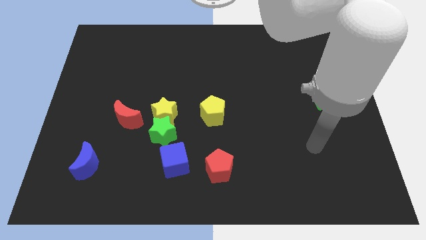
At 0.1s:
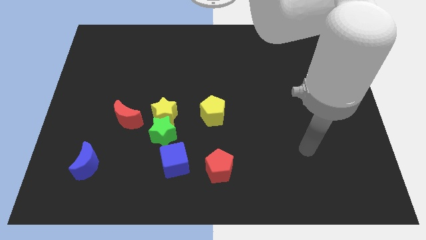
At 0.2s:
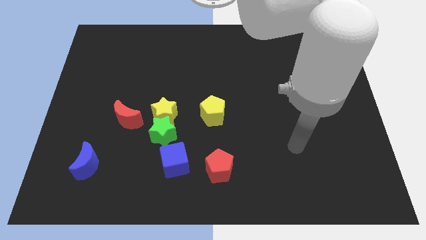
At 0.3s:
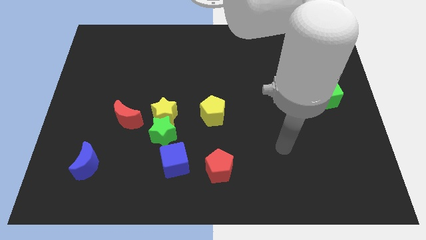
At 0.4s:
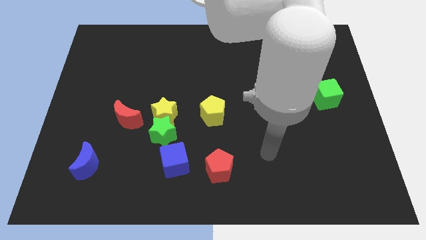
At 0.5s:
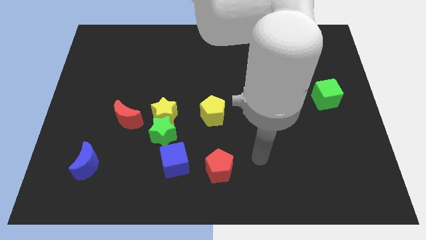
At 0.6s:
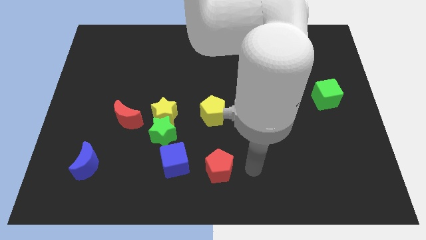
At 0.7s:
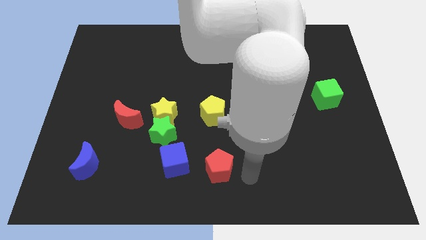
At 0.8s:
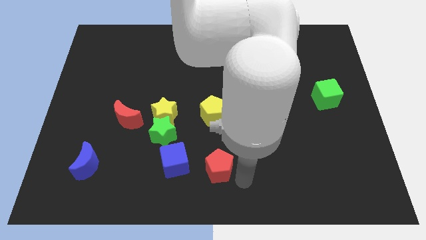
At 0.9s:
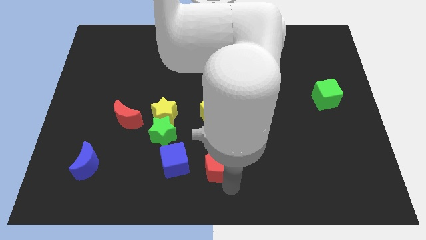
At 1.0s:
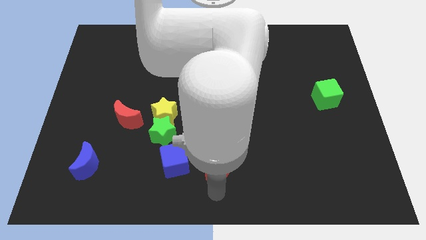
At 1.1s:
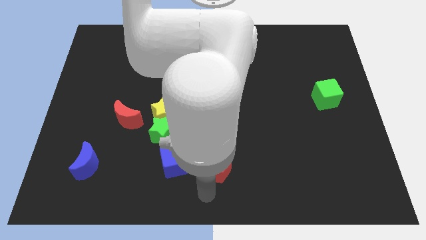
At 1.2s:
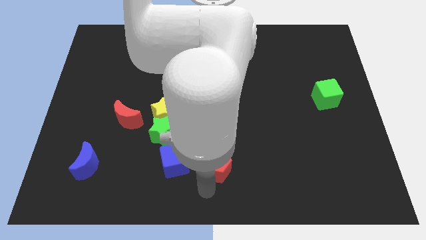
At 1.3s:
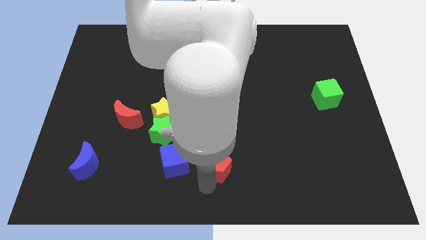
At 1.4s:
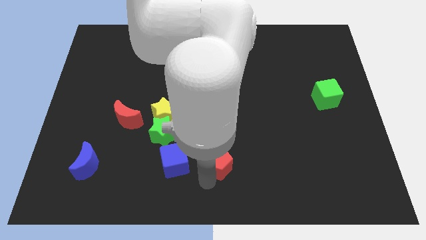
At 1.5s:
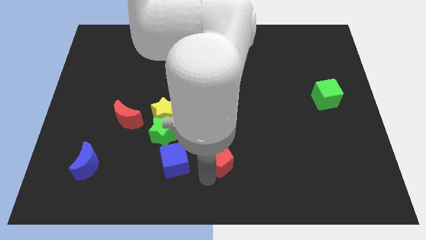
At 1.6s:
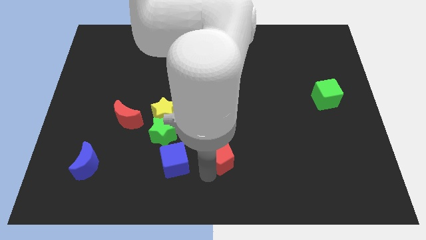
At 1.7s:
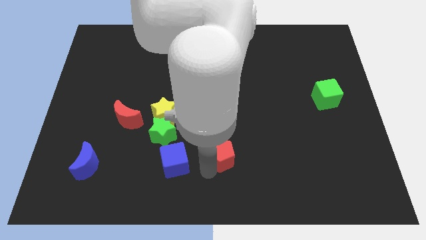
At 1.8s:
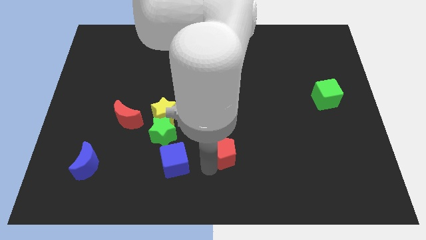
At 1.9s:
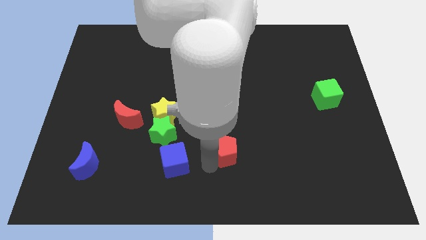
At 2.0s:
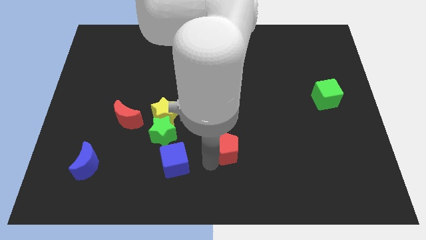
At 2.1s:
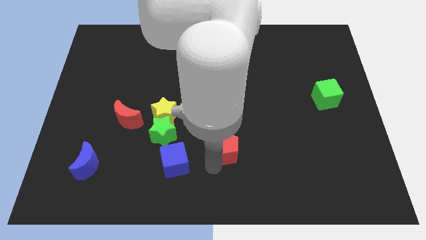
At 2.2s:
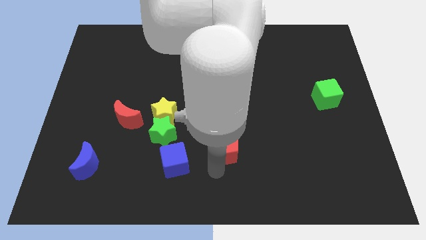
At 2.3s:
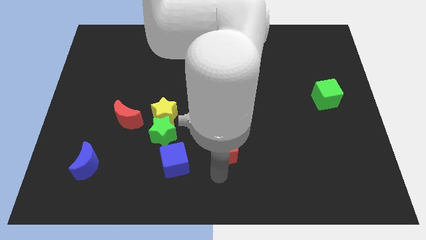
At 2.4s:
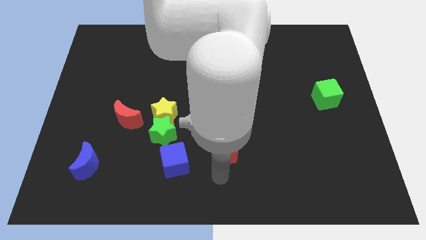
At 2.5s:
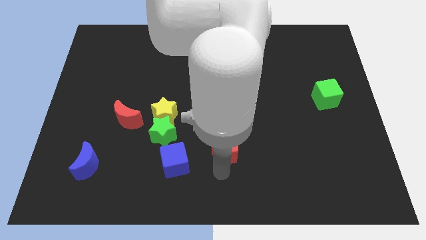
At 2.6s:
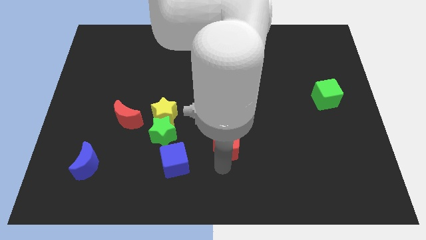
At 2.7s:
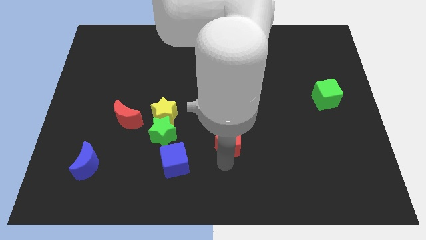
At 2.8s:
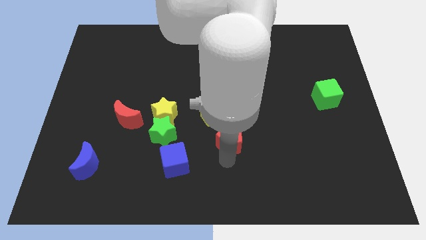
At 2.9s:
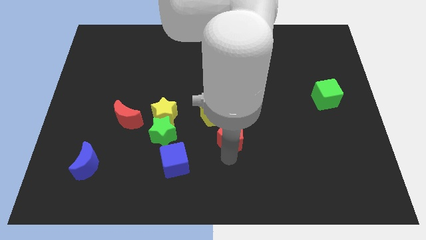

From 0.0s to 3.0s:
push the red pentagon up a little

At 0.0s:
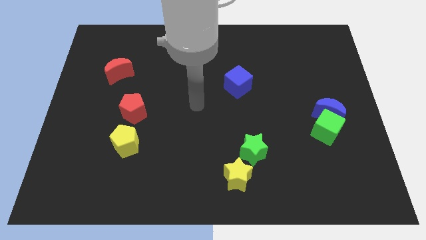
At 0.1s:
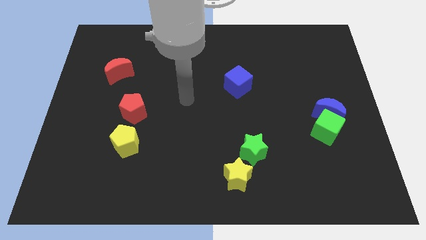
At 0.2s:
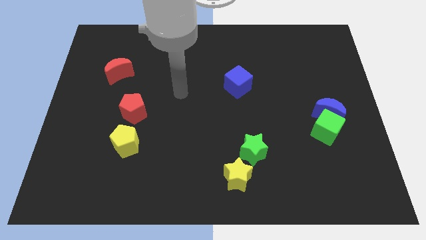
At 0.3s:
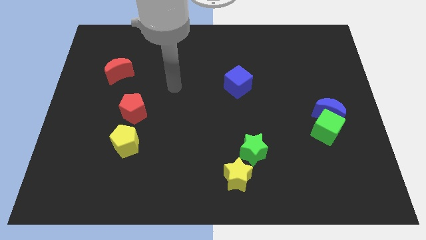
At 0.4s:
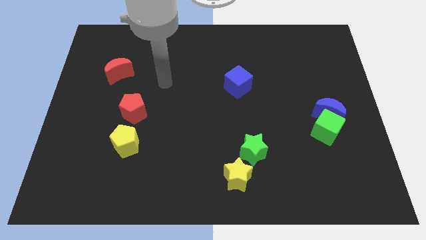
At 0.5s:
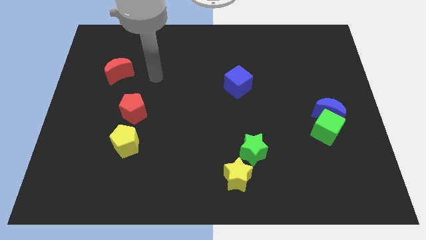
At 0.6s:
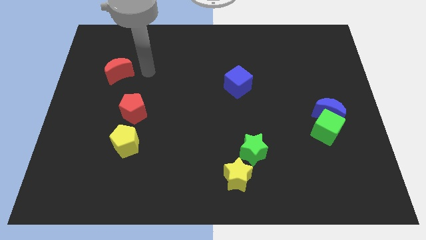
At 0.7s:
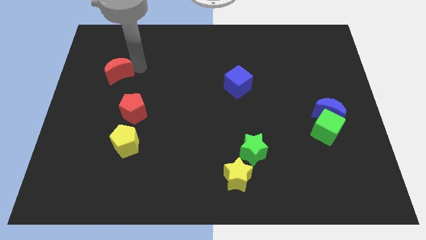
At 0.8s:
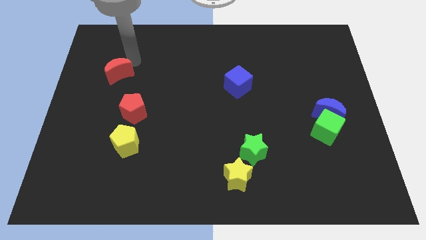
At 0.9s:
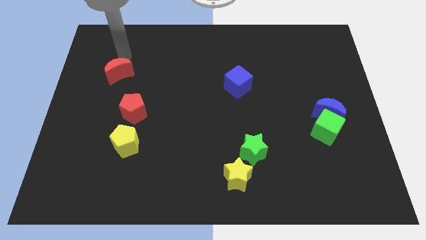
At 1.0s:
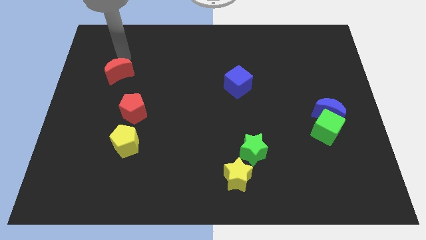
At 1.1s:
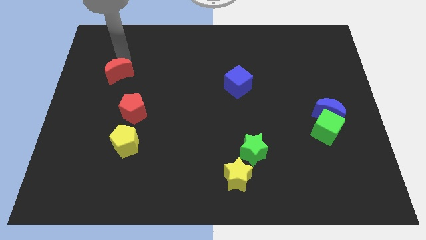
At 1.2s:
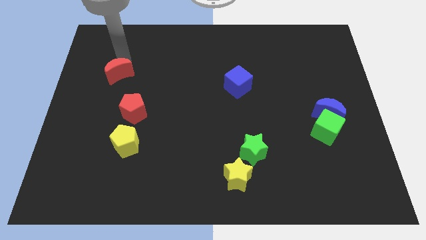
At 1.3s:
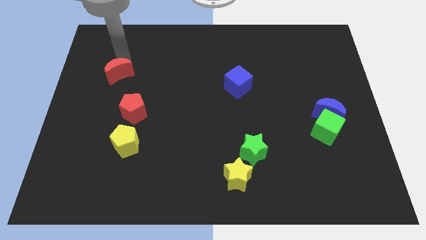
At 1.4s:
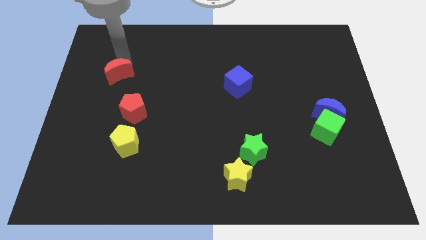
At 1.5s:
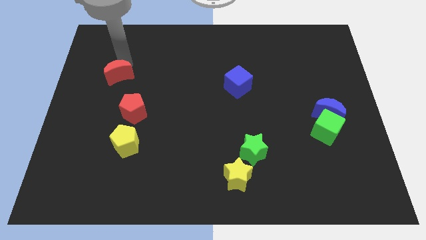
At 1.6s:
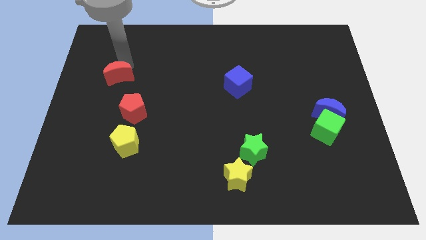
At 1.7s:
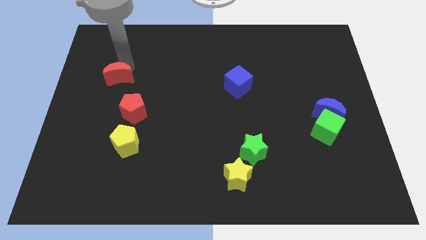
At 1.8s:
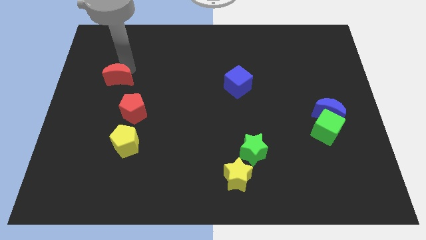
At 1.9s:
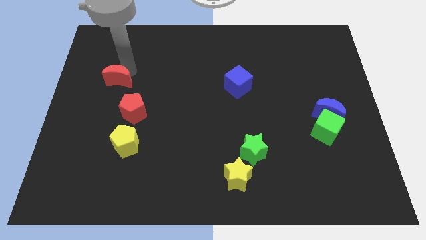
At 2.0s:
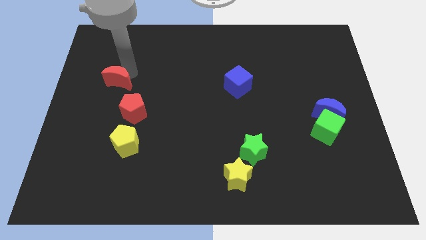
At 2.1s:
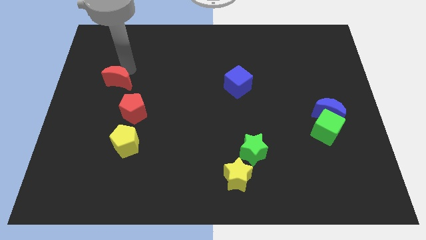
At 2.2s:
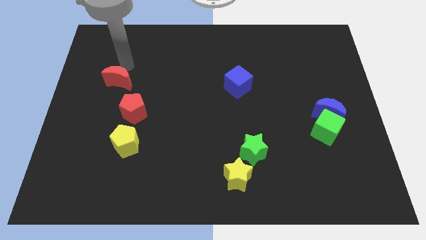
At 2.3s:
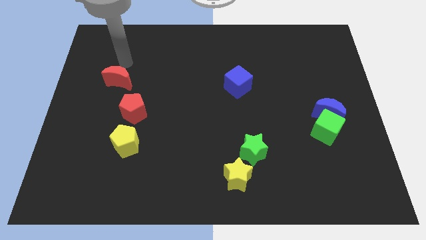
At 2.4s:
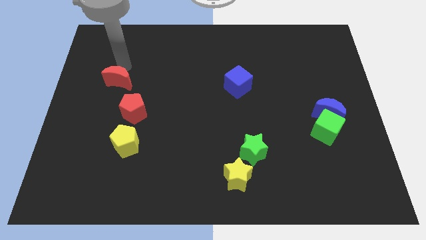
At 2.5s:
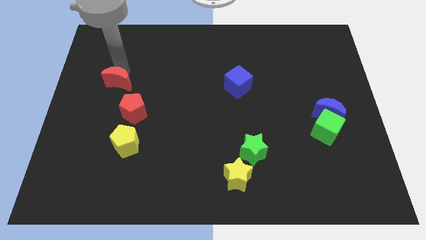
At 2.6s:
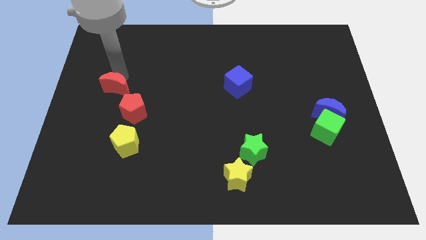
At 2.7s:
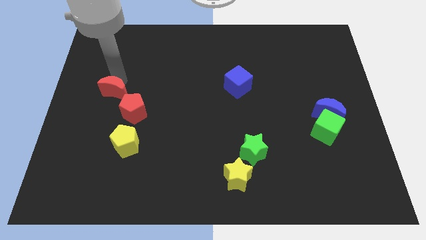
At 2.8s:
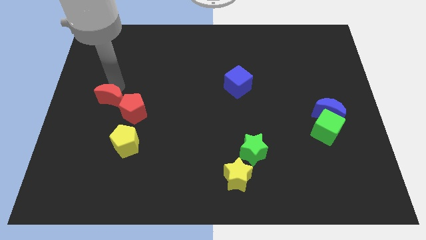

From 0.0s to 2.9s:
move the red moon downwards a little bit

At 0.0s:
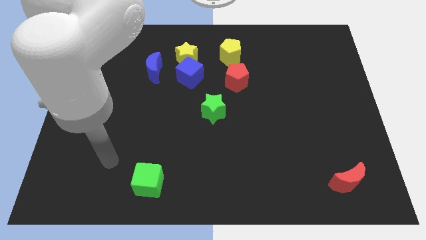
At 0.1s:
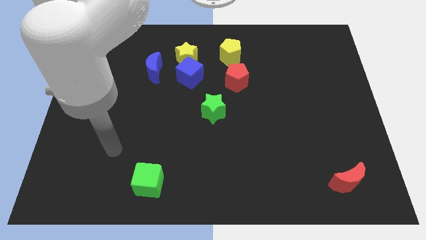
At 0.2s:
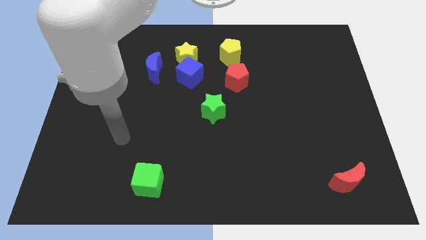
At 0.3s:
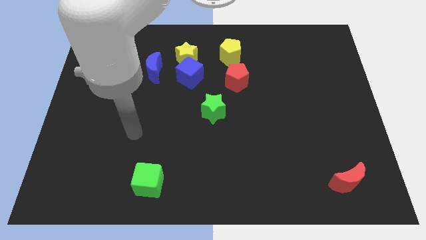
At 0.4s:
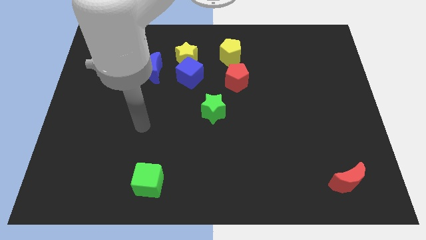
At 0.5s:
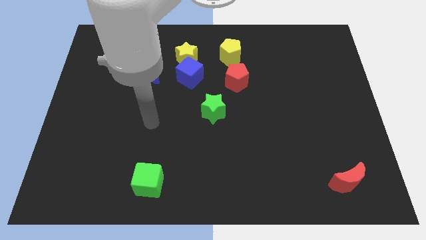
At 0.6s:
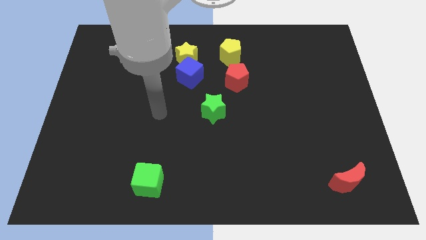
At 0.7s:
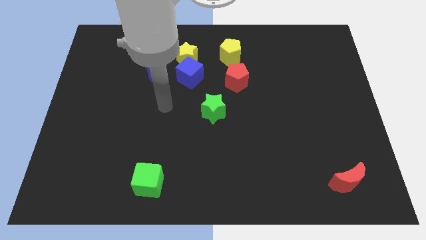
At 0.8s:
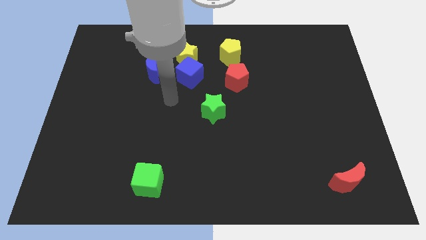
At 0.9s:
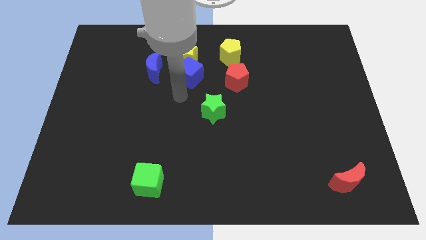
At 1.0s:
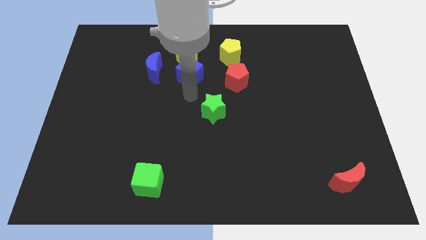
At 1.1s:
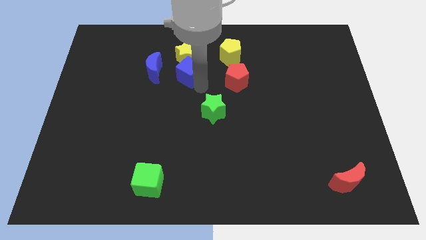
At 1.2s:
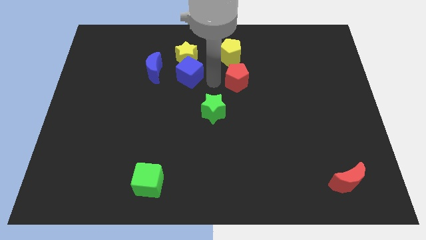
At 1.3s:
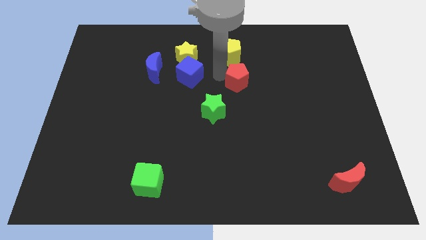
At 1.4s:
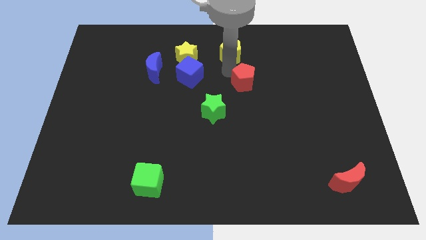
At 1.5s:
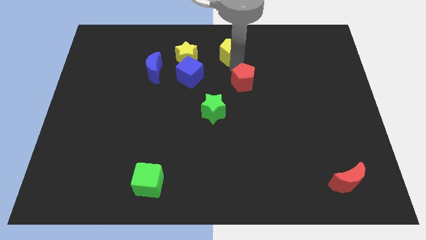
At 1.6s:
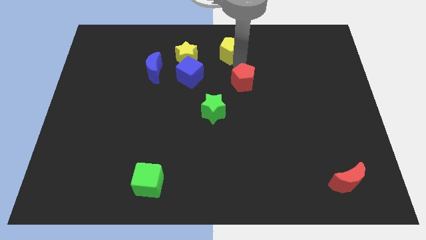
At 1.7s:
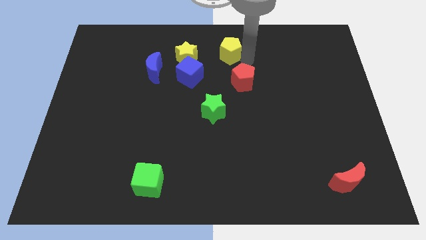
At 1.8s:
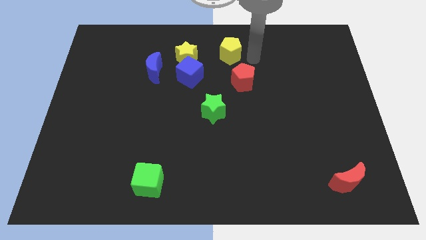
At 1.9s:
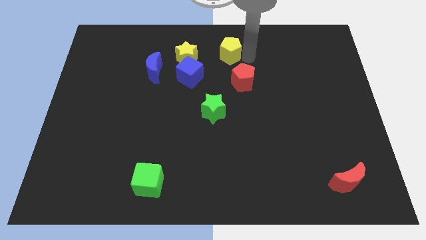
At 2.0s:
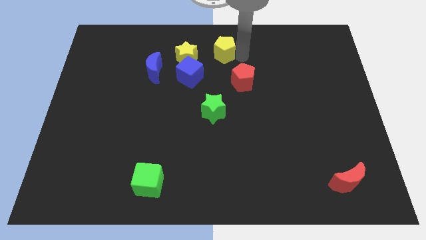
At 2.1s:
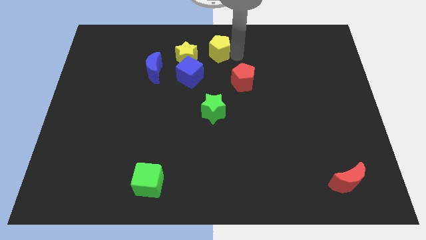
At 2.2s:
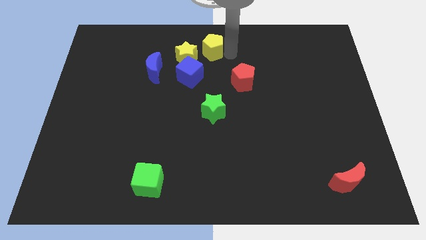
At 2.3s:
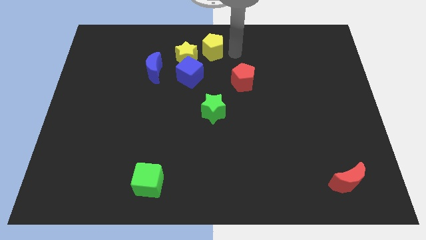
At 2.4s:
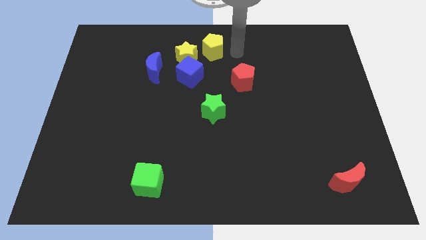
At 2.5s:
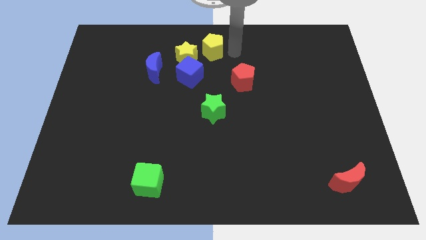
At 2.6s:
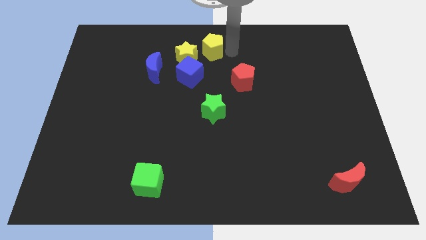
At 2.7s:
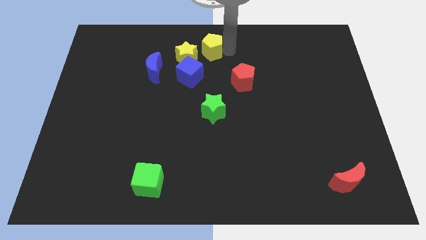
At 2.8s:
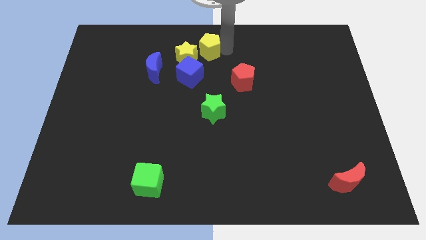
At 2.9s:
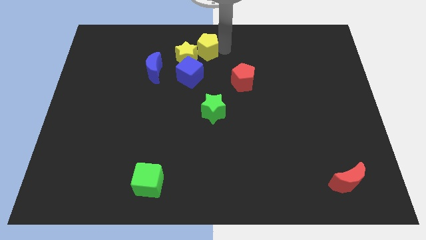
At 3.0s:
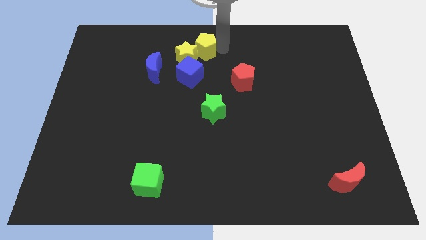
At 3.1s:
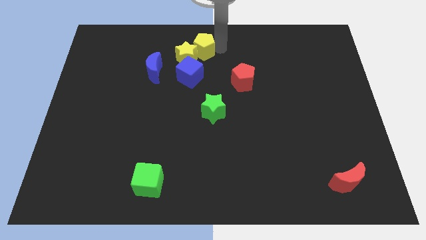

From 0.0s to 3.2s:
slightly move the yellow pentagon to the left
